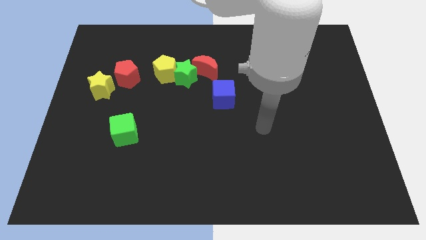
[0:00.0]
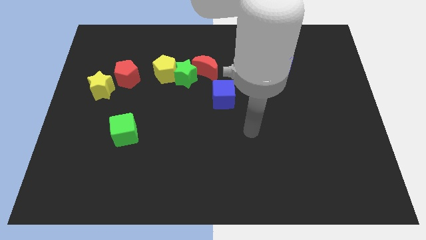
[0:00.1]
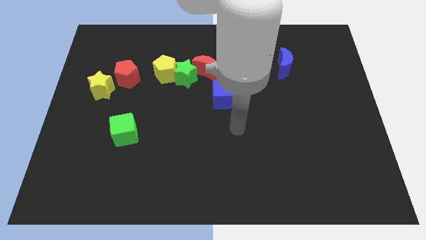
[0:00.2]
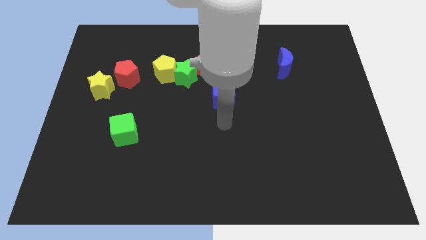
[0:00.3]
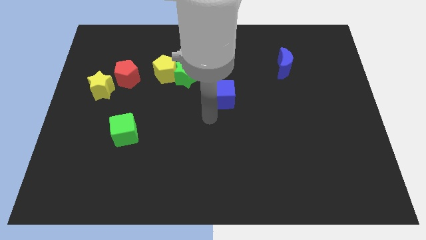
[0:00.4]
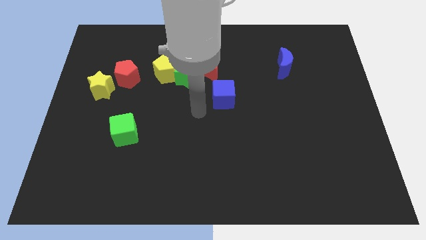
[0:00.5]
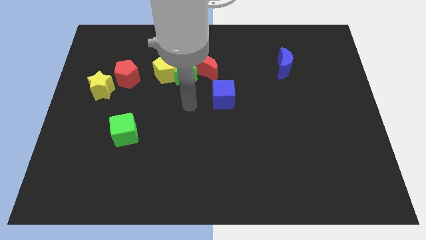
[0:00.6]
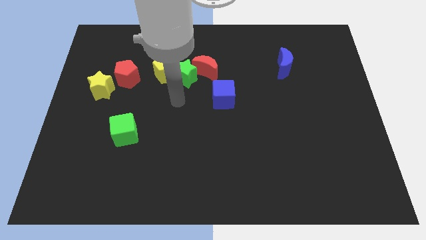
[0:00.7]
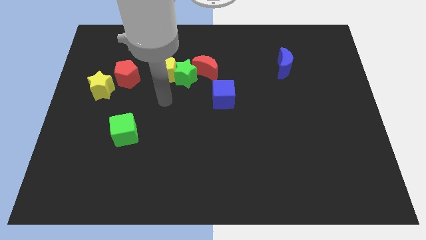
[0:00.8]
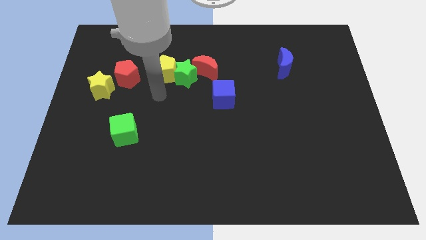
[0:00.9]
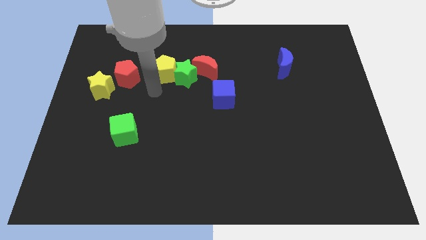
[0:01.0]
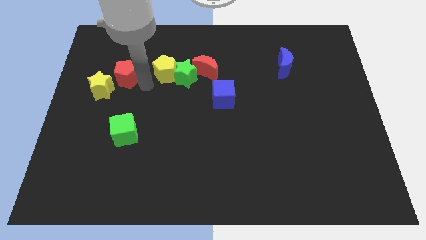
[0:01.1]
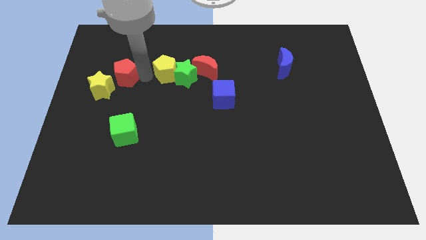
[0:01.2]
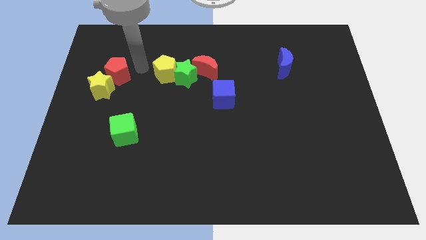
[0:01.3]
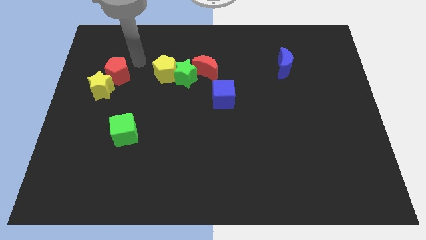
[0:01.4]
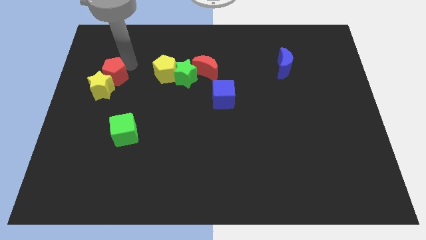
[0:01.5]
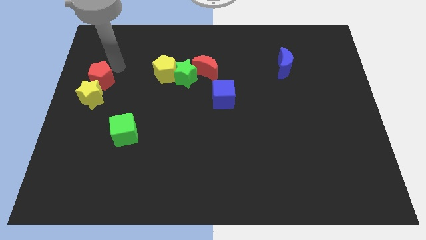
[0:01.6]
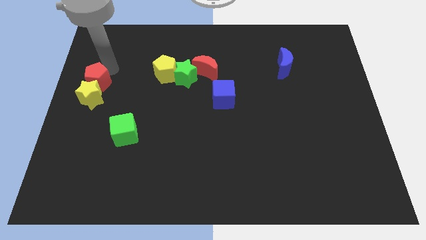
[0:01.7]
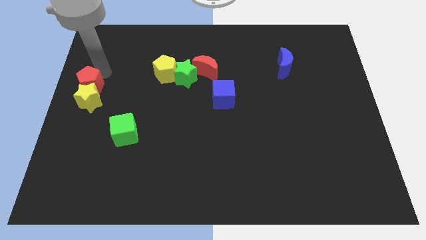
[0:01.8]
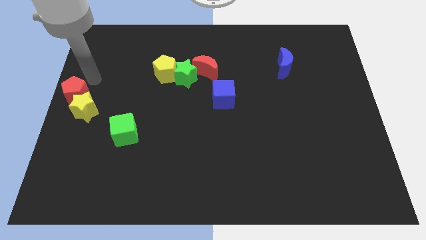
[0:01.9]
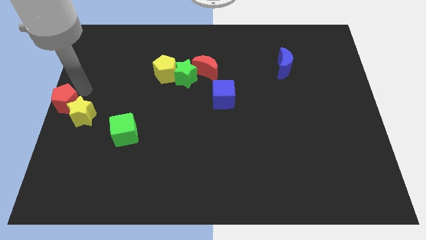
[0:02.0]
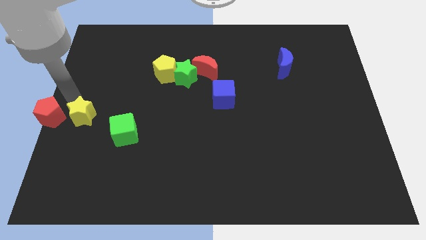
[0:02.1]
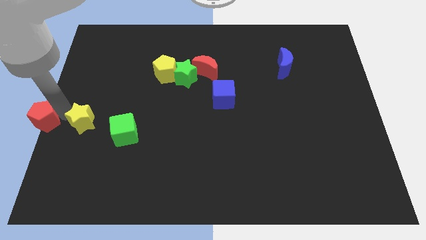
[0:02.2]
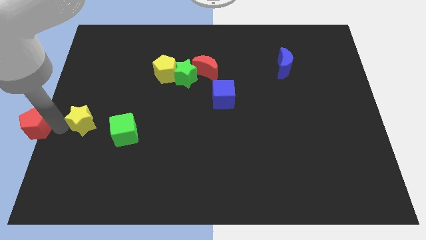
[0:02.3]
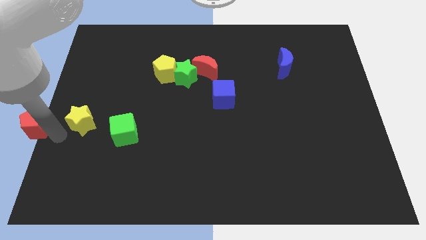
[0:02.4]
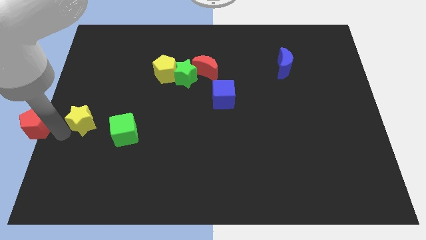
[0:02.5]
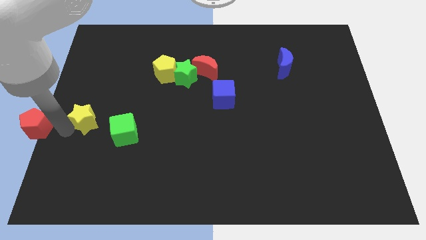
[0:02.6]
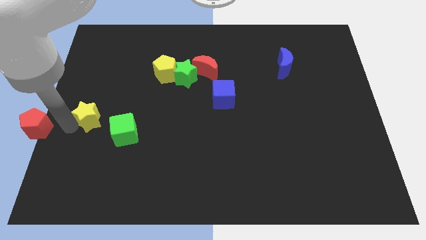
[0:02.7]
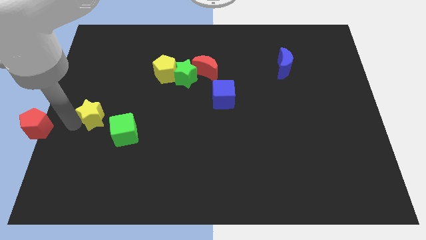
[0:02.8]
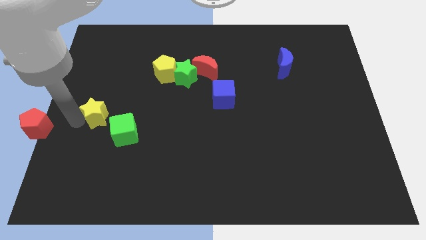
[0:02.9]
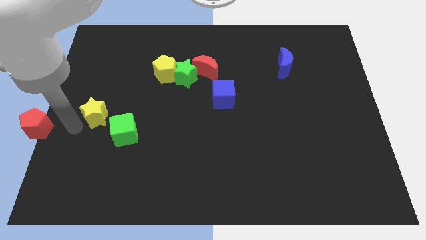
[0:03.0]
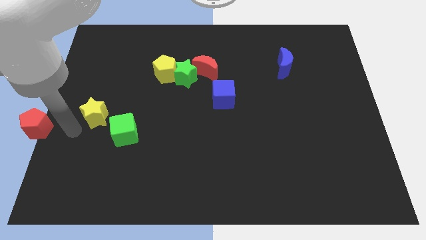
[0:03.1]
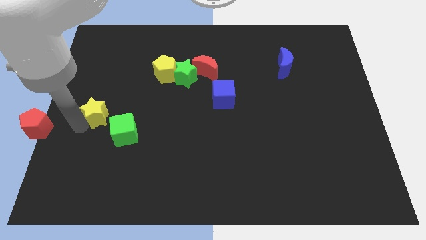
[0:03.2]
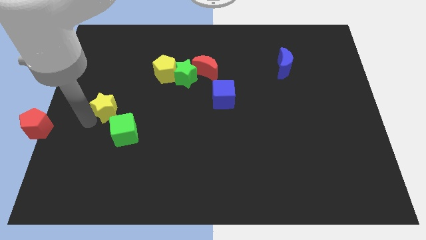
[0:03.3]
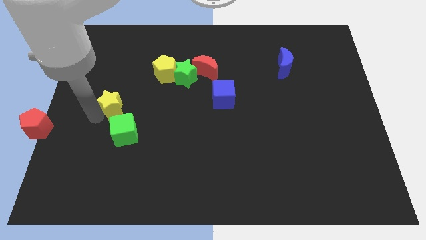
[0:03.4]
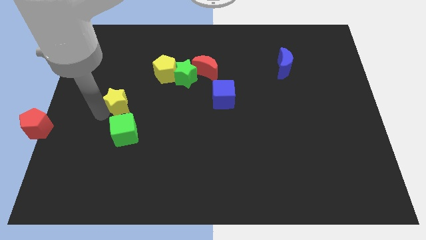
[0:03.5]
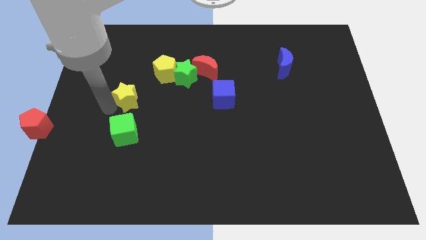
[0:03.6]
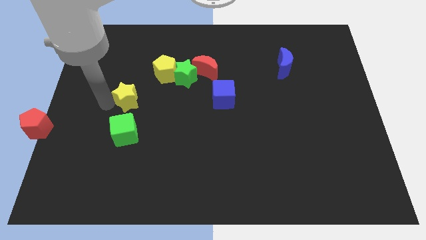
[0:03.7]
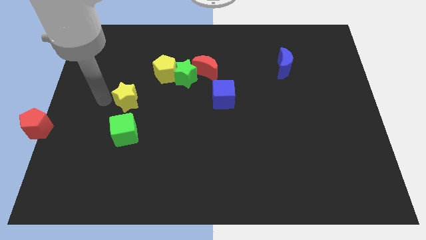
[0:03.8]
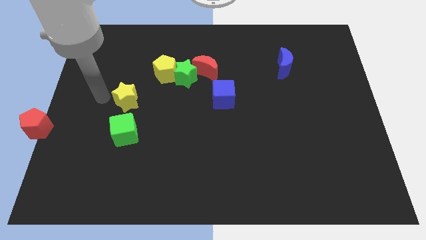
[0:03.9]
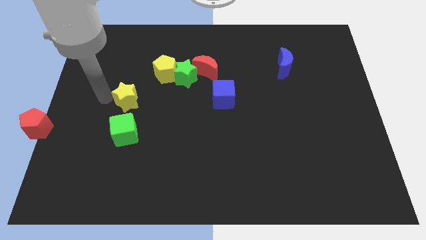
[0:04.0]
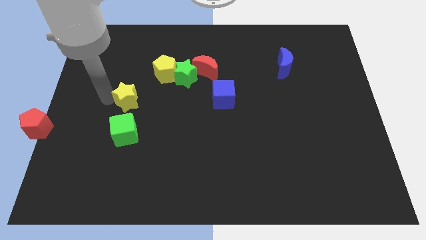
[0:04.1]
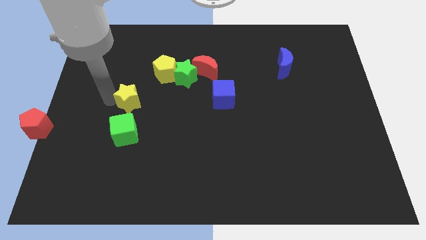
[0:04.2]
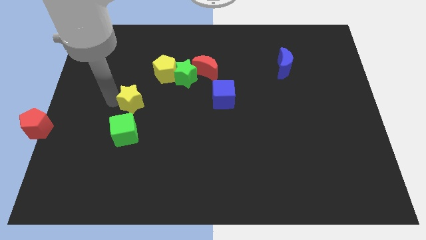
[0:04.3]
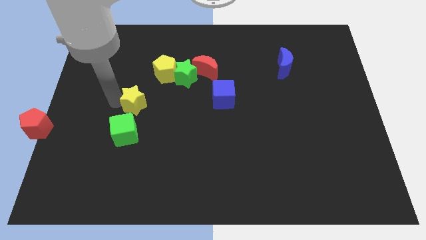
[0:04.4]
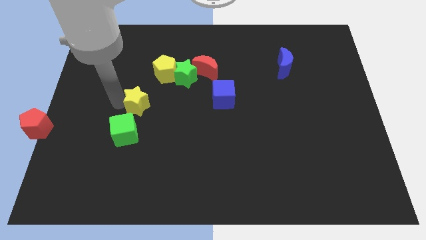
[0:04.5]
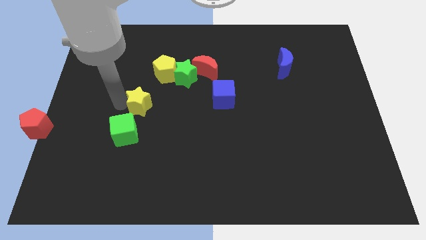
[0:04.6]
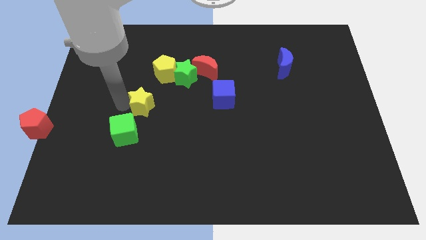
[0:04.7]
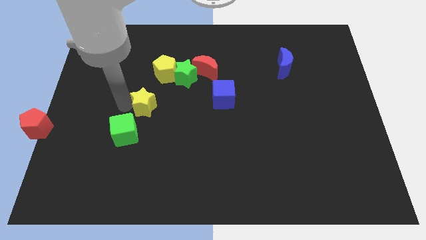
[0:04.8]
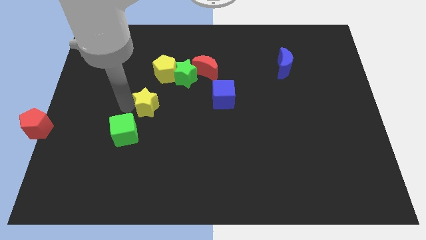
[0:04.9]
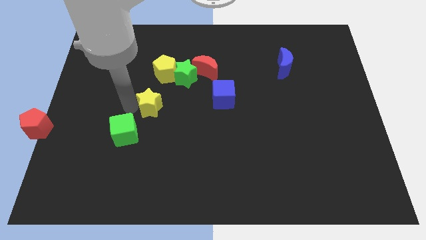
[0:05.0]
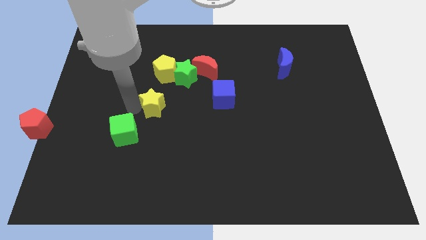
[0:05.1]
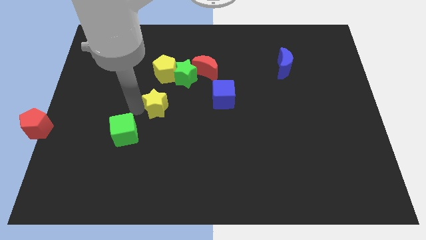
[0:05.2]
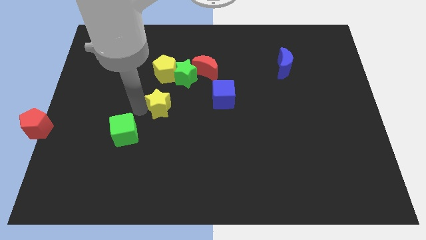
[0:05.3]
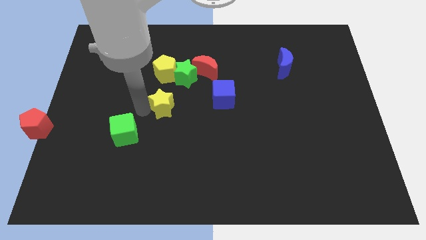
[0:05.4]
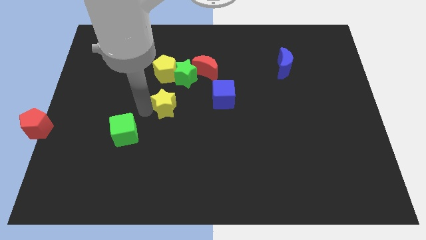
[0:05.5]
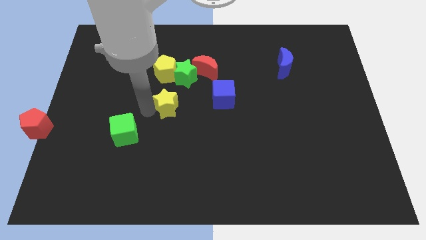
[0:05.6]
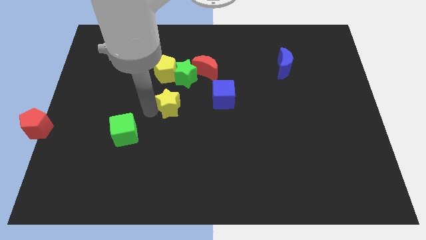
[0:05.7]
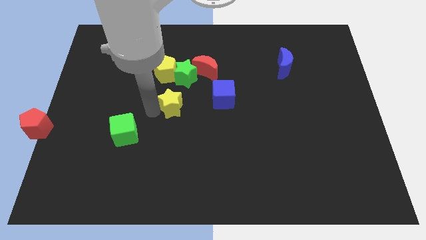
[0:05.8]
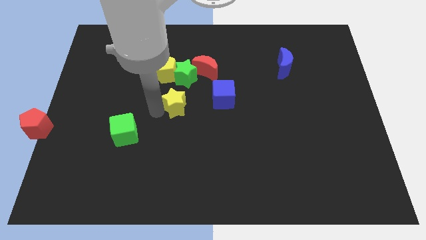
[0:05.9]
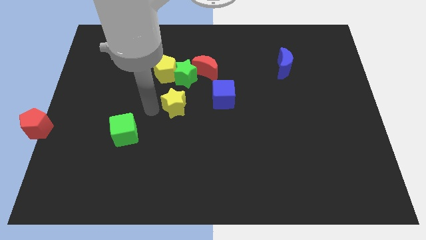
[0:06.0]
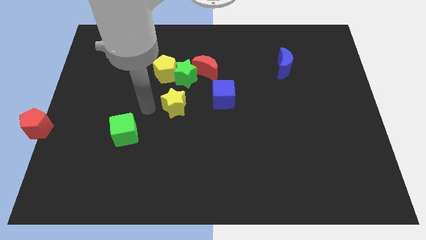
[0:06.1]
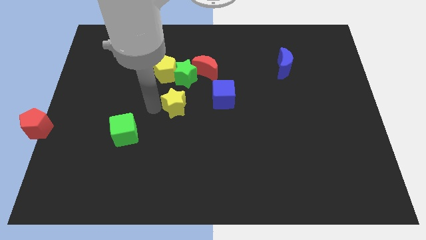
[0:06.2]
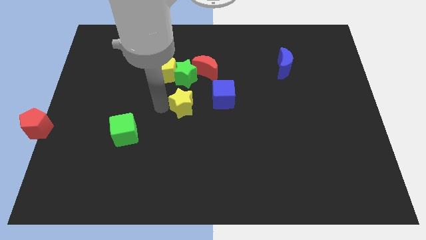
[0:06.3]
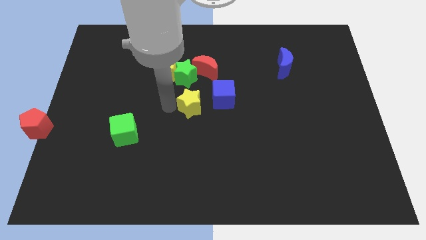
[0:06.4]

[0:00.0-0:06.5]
move the yellow star to the bottom of the red moon

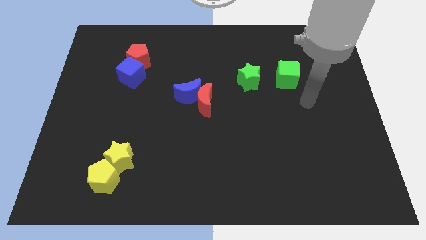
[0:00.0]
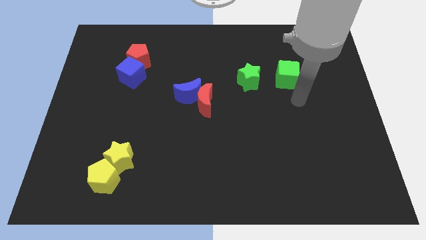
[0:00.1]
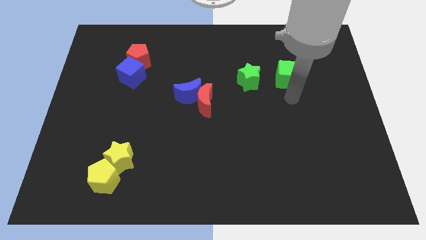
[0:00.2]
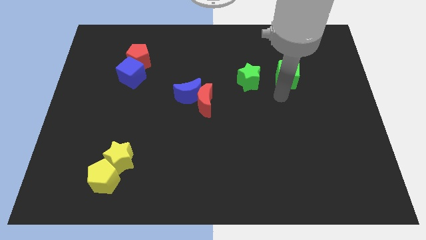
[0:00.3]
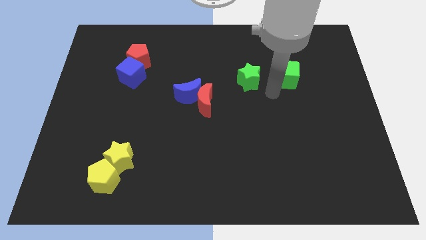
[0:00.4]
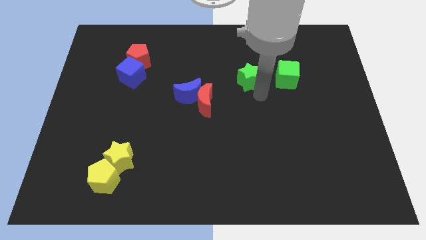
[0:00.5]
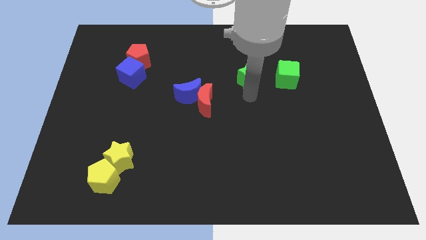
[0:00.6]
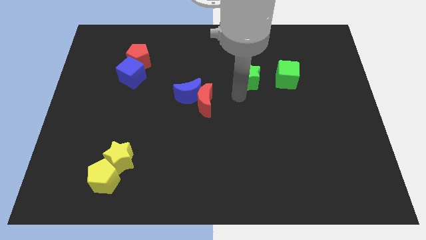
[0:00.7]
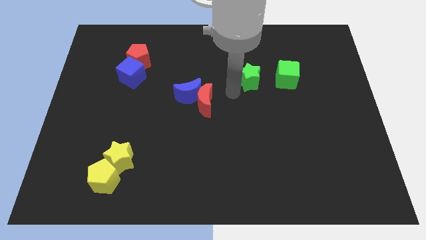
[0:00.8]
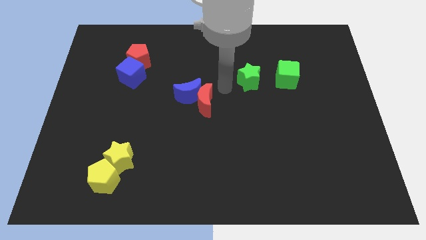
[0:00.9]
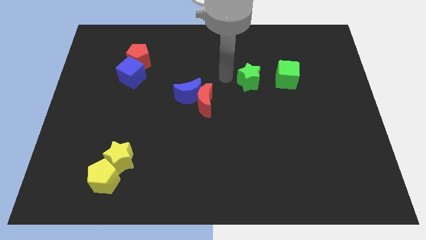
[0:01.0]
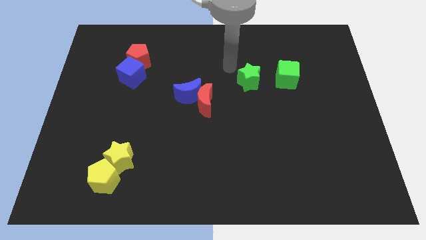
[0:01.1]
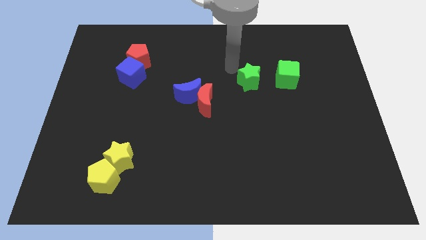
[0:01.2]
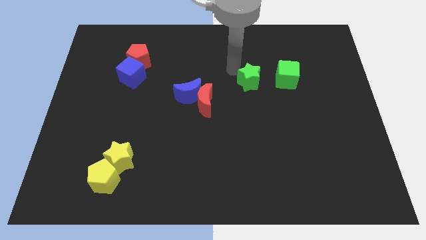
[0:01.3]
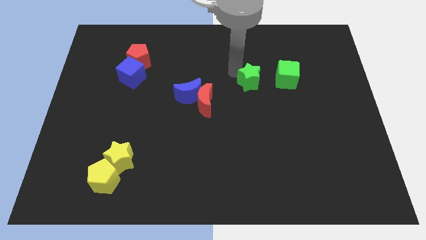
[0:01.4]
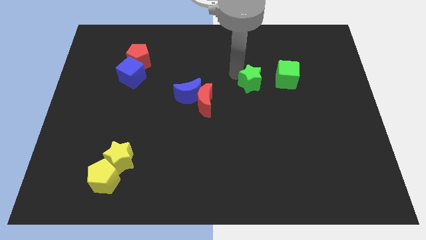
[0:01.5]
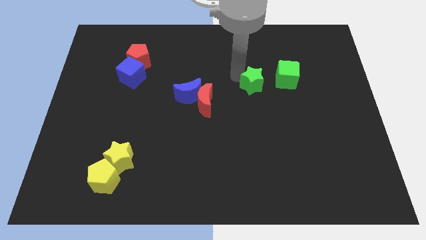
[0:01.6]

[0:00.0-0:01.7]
slide the green star to the bottom left side of the green cube
